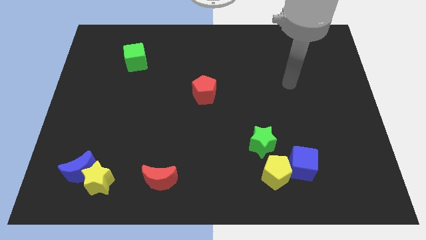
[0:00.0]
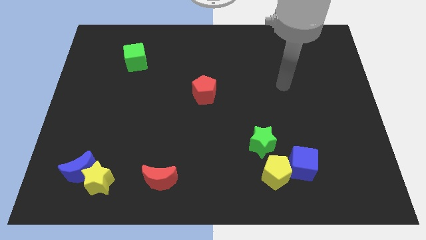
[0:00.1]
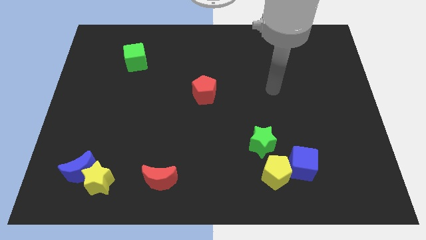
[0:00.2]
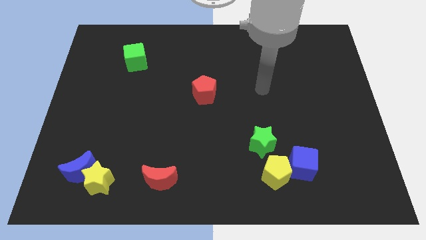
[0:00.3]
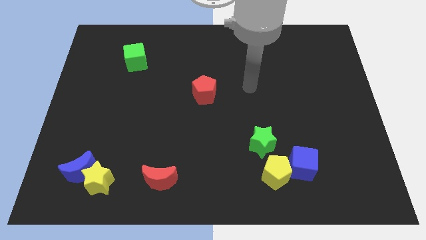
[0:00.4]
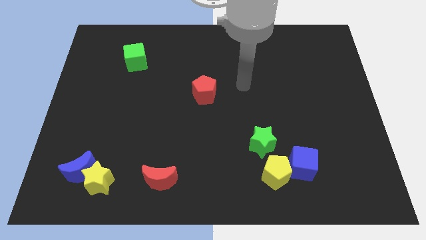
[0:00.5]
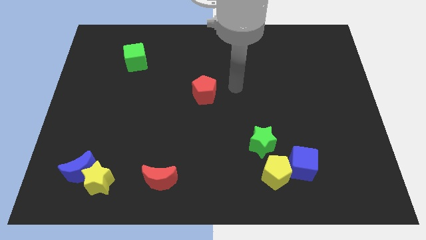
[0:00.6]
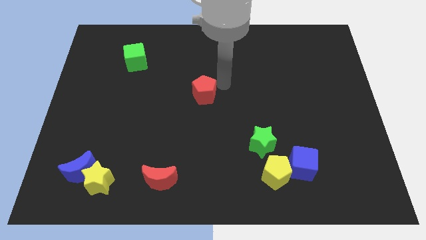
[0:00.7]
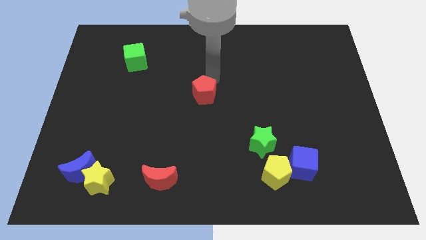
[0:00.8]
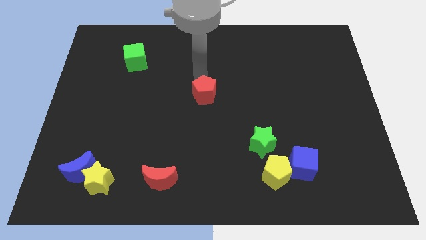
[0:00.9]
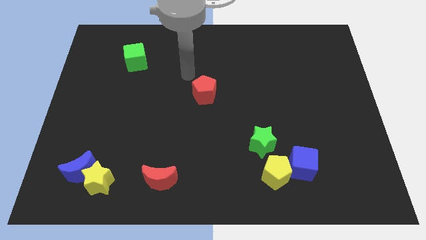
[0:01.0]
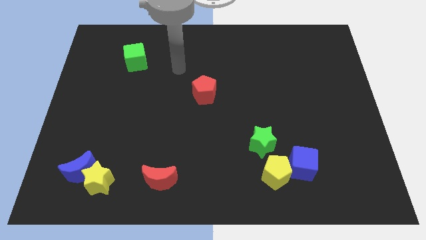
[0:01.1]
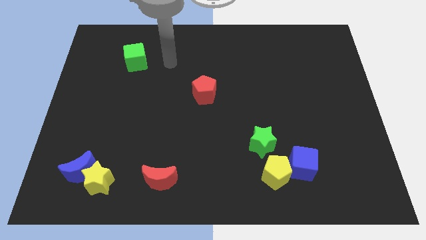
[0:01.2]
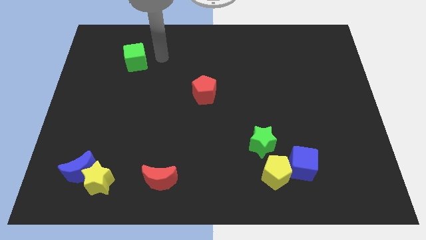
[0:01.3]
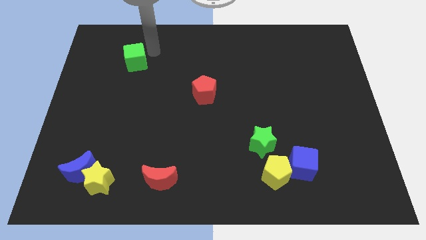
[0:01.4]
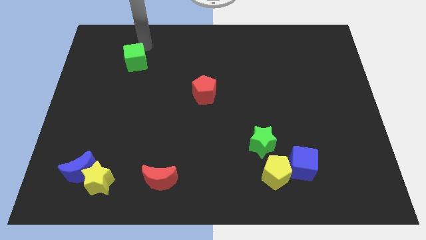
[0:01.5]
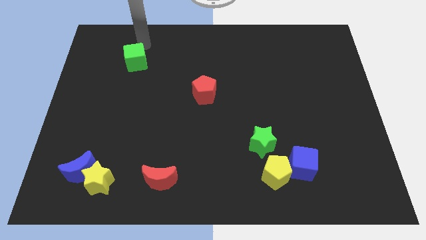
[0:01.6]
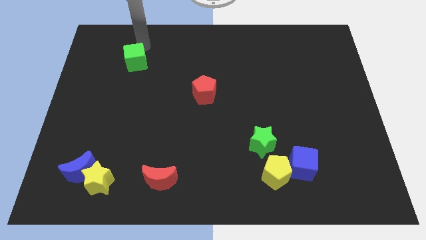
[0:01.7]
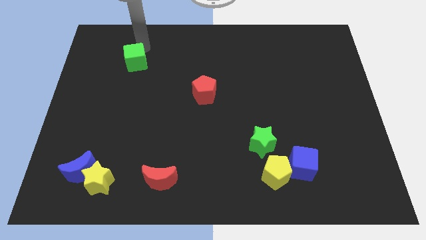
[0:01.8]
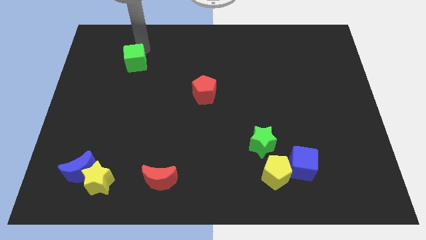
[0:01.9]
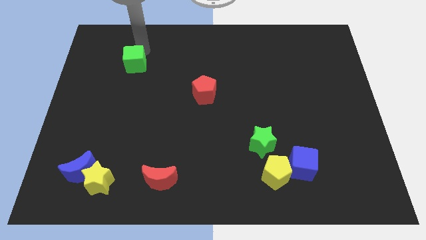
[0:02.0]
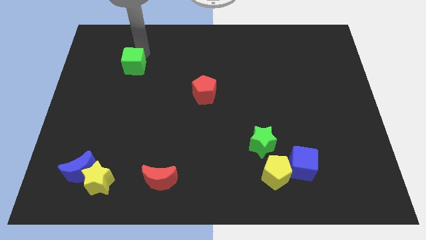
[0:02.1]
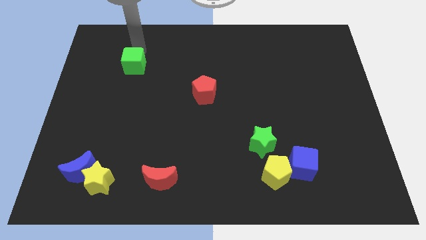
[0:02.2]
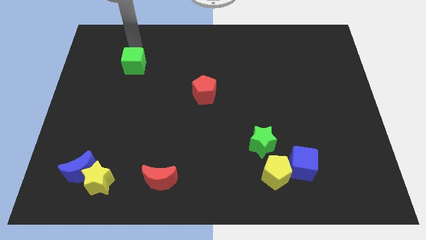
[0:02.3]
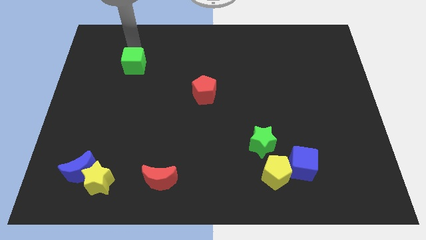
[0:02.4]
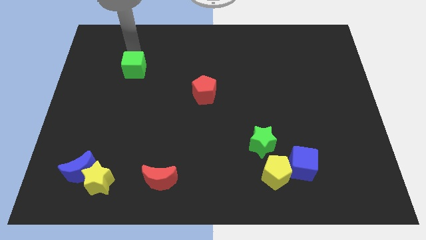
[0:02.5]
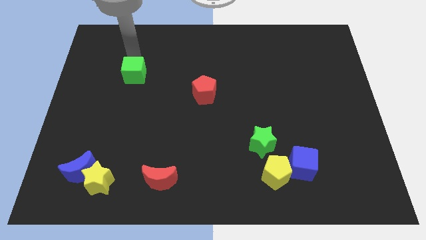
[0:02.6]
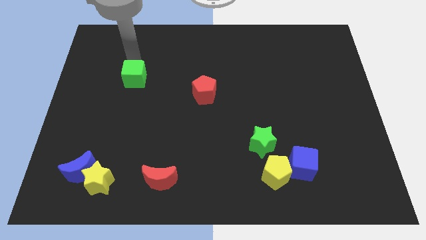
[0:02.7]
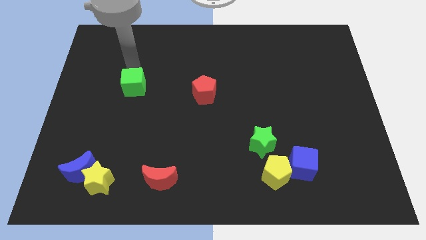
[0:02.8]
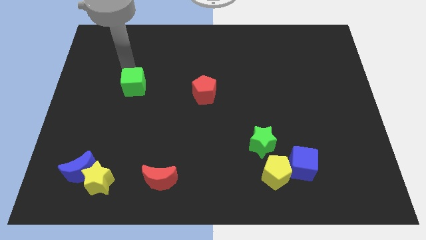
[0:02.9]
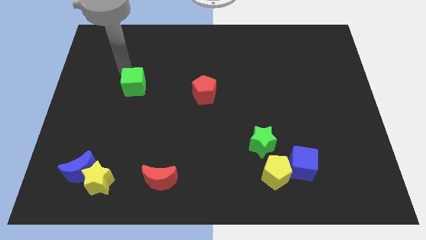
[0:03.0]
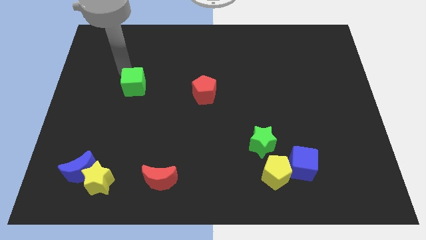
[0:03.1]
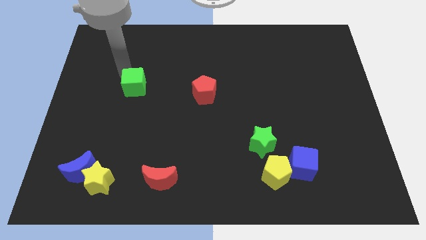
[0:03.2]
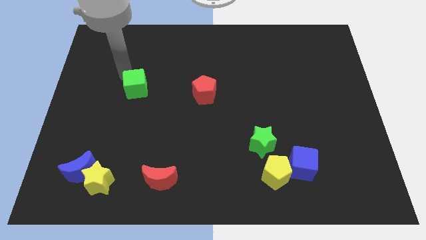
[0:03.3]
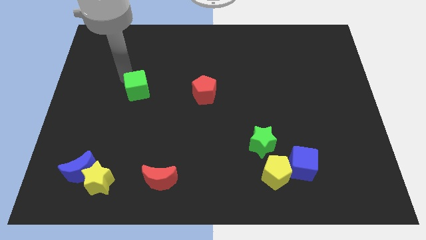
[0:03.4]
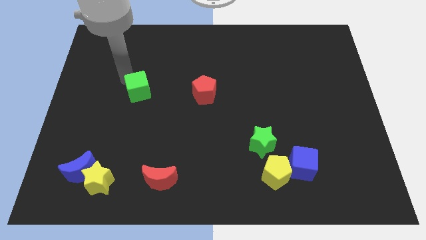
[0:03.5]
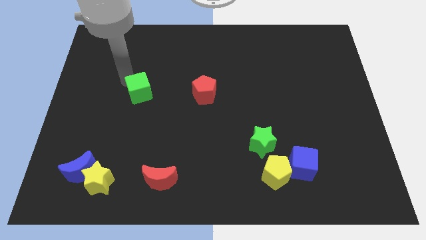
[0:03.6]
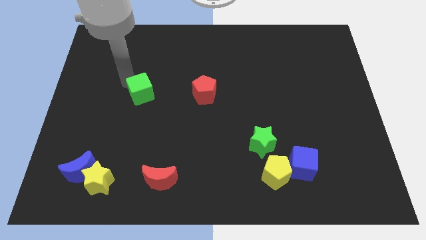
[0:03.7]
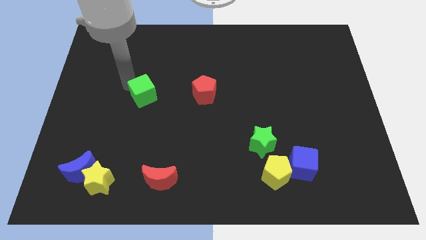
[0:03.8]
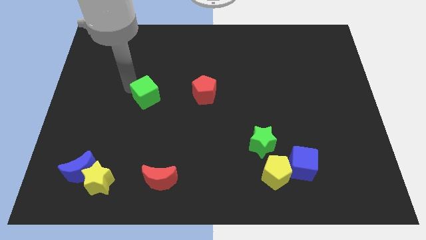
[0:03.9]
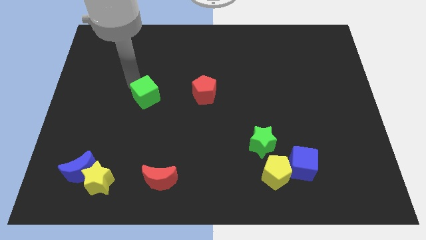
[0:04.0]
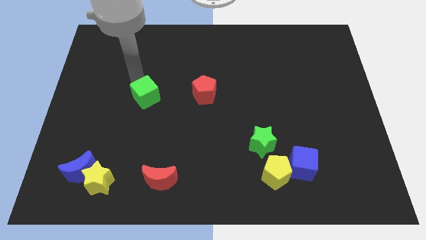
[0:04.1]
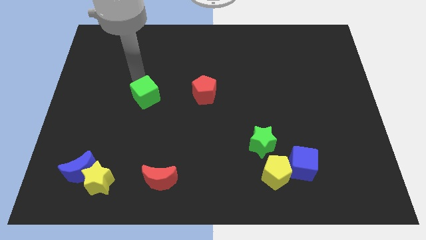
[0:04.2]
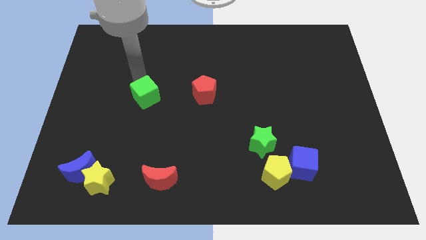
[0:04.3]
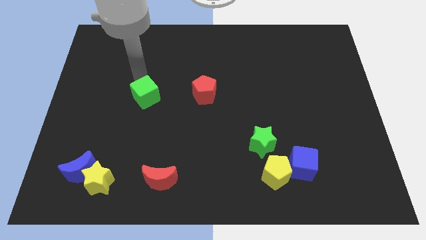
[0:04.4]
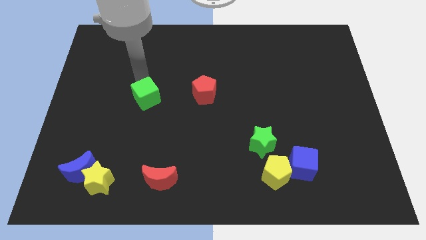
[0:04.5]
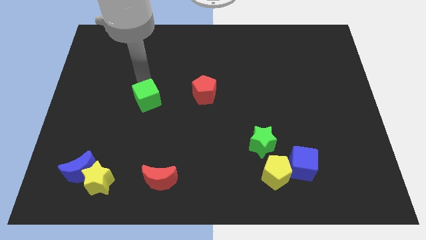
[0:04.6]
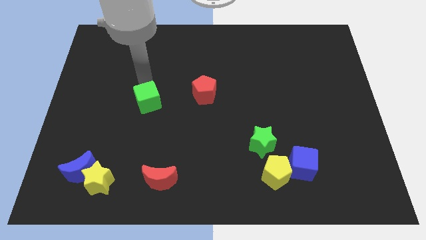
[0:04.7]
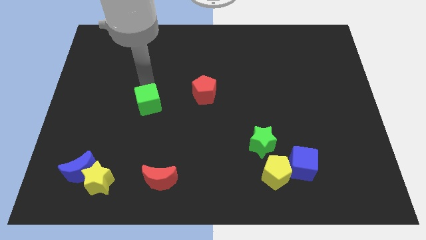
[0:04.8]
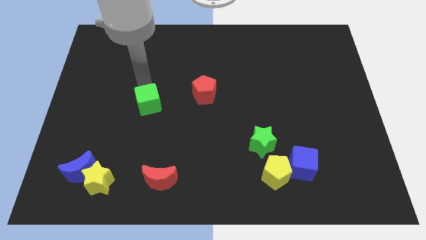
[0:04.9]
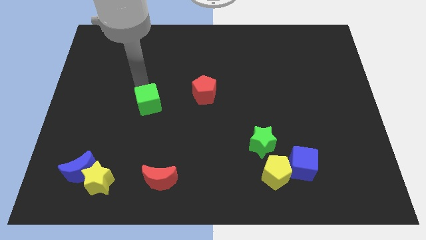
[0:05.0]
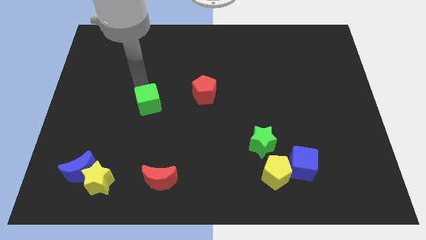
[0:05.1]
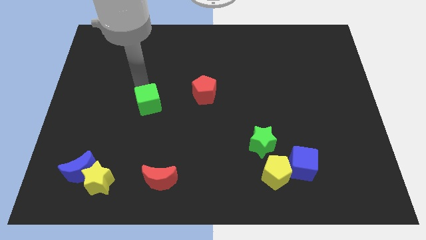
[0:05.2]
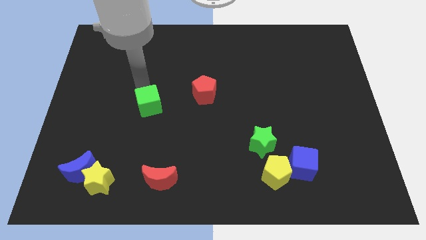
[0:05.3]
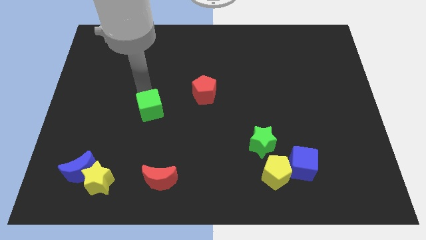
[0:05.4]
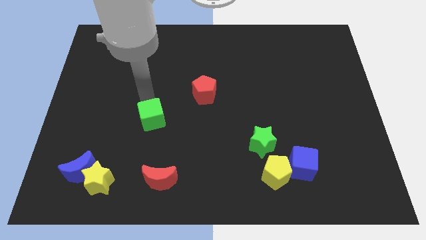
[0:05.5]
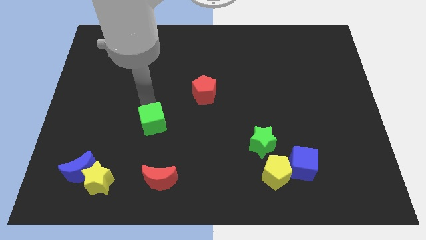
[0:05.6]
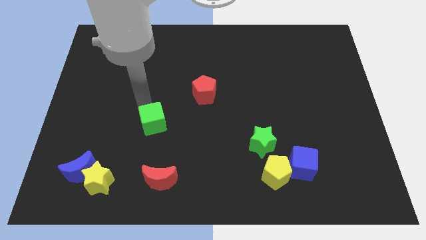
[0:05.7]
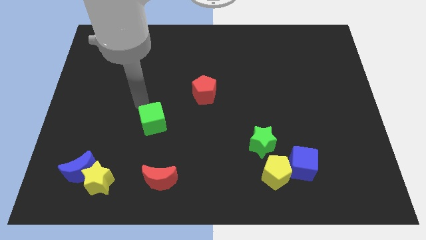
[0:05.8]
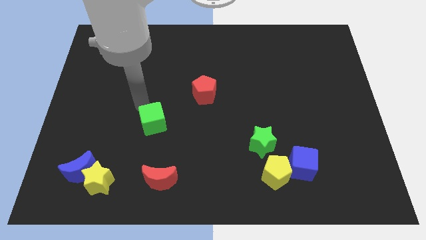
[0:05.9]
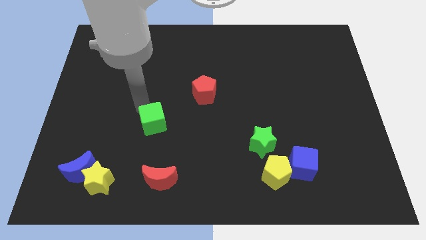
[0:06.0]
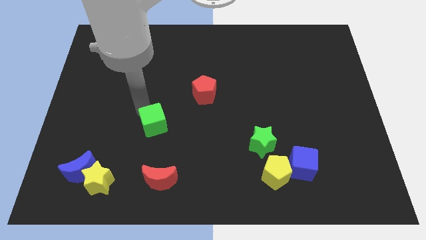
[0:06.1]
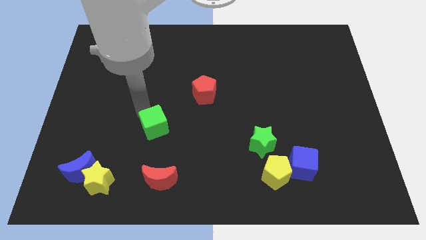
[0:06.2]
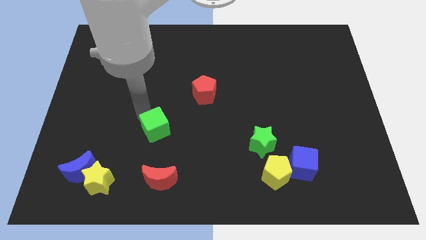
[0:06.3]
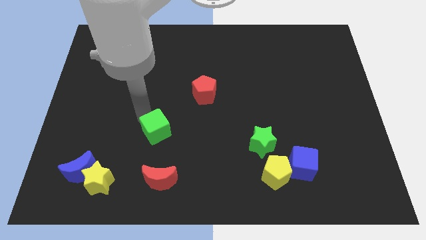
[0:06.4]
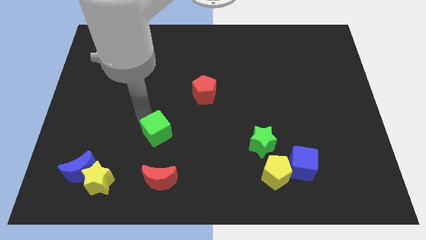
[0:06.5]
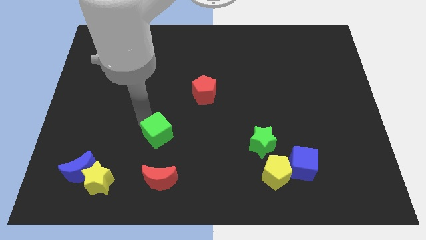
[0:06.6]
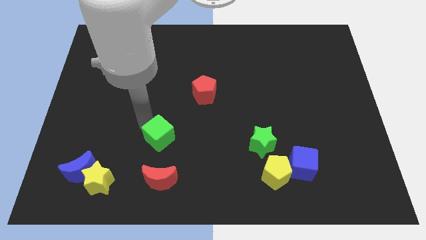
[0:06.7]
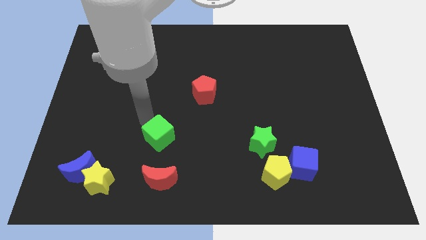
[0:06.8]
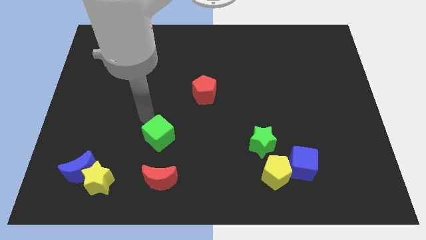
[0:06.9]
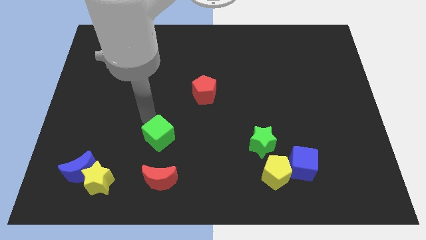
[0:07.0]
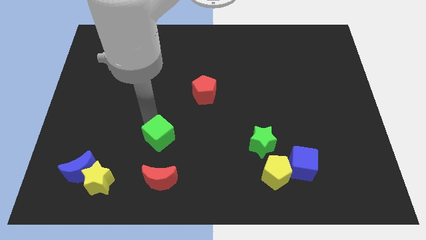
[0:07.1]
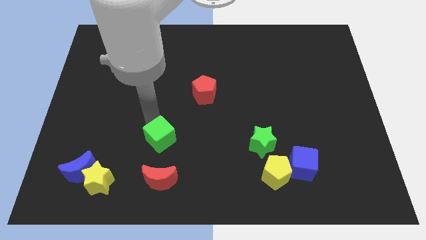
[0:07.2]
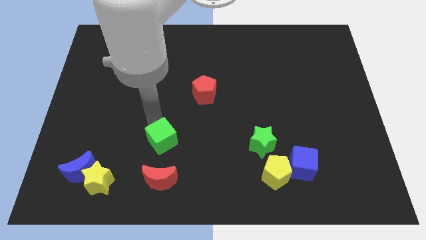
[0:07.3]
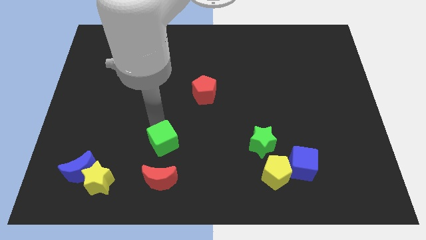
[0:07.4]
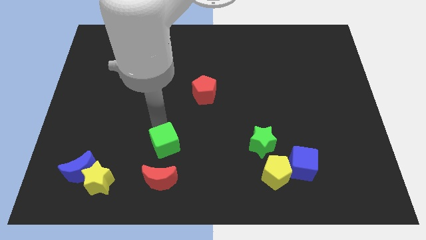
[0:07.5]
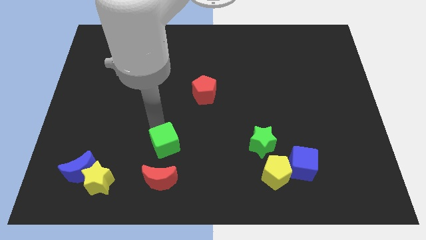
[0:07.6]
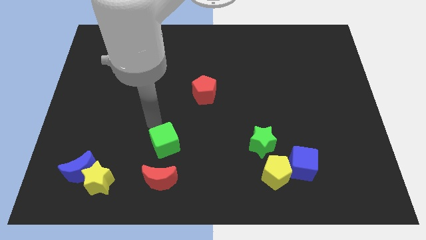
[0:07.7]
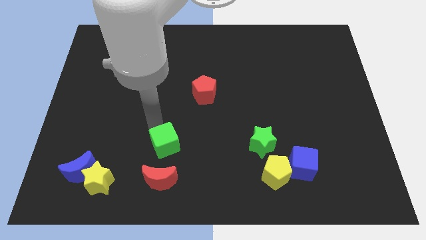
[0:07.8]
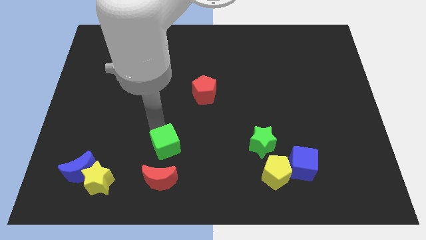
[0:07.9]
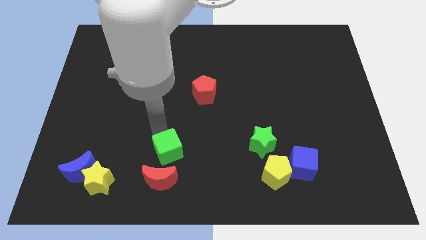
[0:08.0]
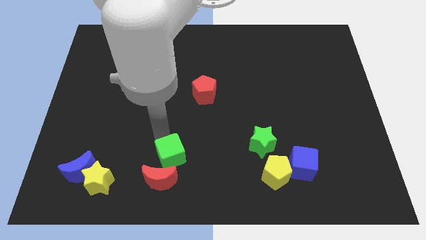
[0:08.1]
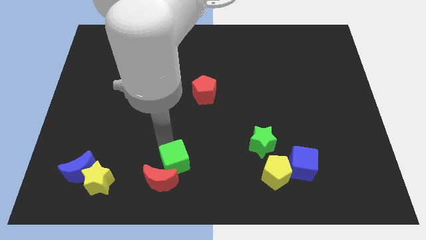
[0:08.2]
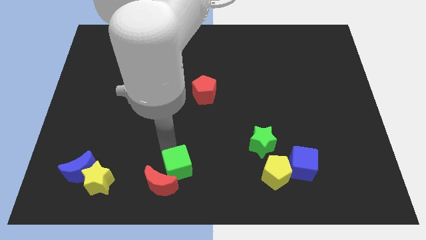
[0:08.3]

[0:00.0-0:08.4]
slide the green cube to the bottom
